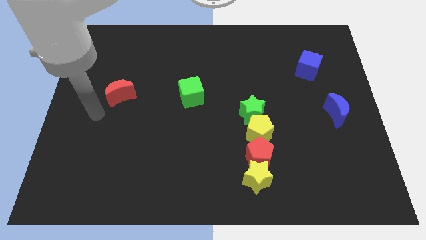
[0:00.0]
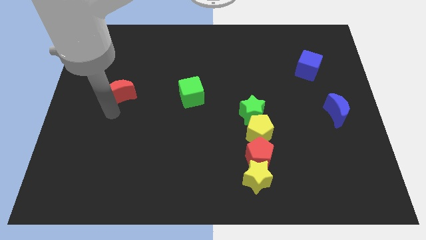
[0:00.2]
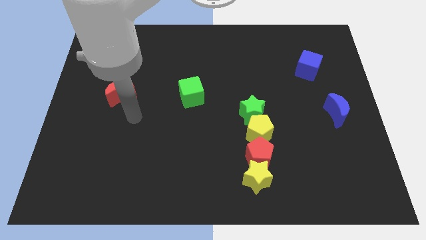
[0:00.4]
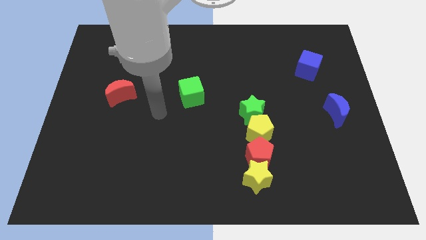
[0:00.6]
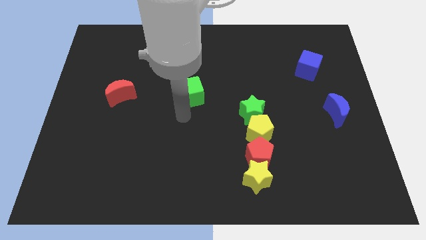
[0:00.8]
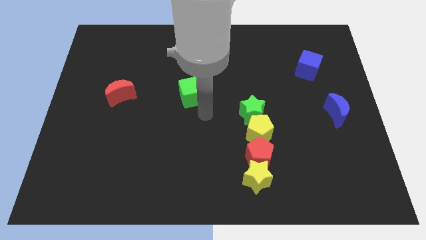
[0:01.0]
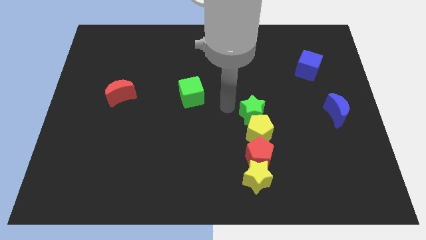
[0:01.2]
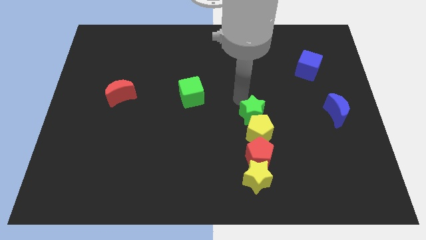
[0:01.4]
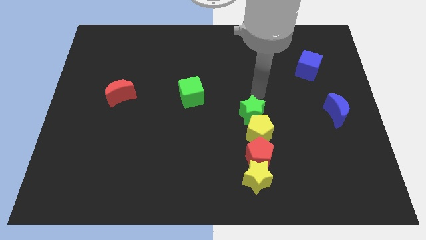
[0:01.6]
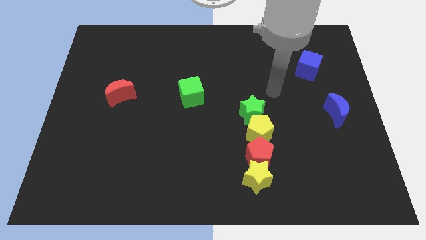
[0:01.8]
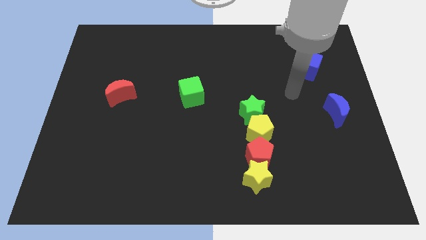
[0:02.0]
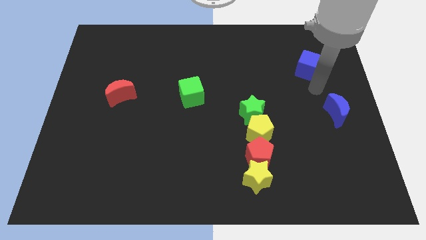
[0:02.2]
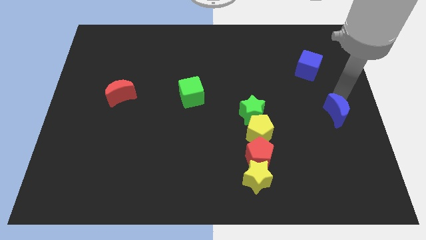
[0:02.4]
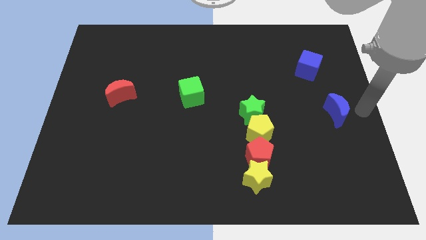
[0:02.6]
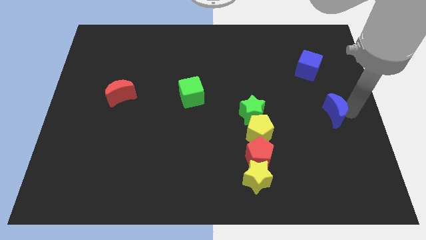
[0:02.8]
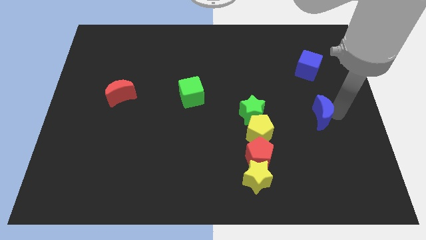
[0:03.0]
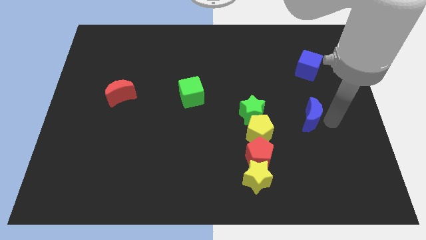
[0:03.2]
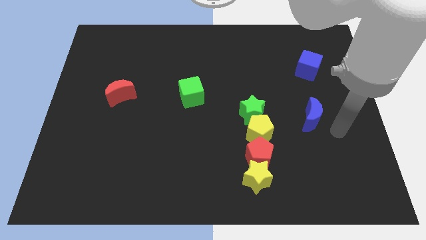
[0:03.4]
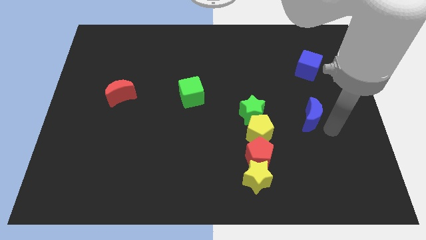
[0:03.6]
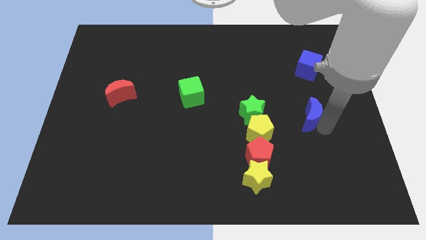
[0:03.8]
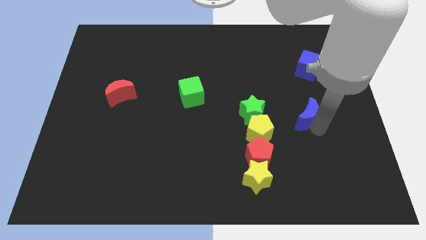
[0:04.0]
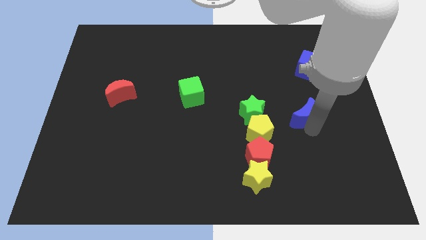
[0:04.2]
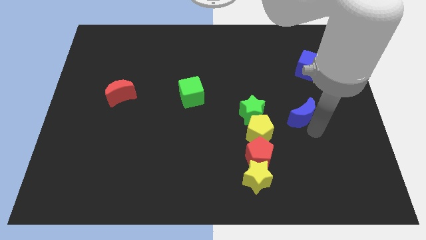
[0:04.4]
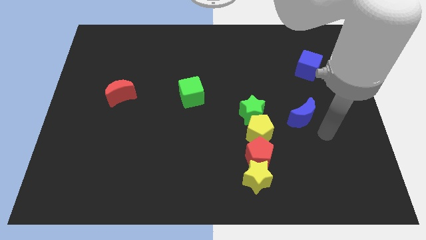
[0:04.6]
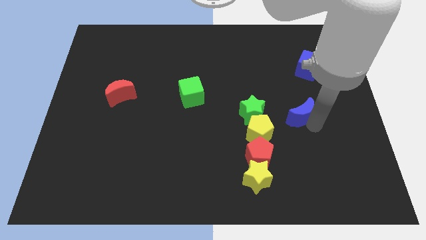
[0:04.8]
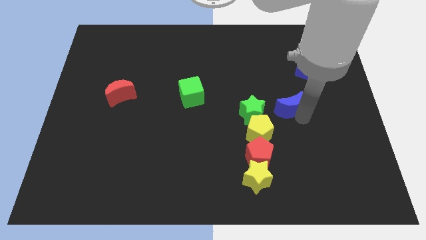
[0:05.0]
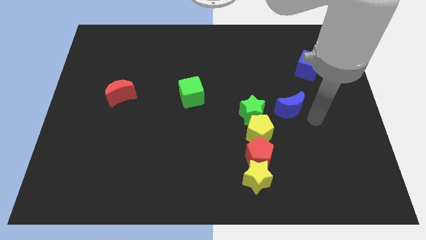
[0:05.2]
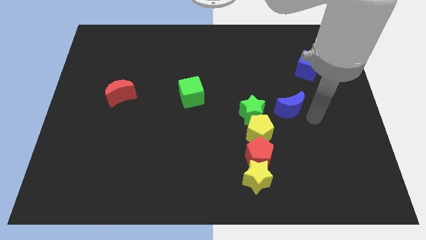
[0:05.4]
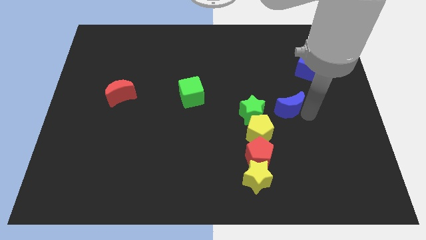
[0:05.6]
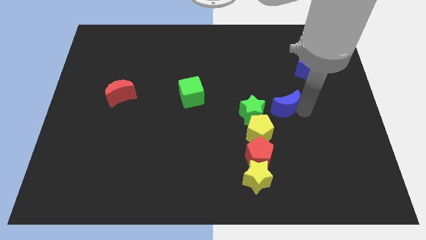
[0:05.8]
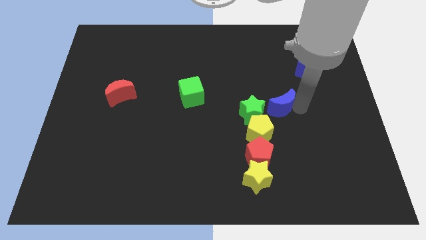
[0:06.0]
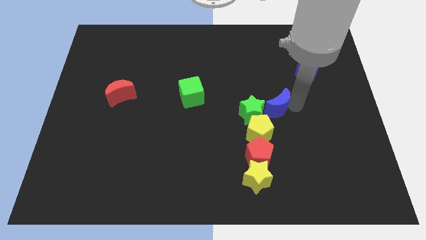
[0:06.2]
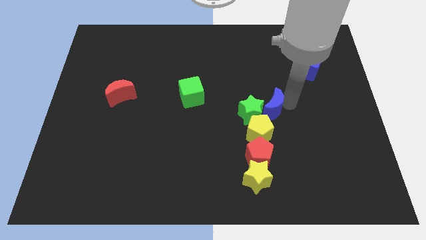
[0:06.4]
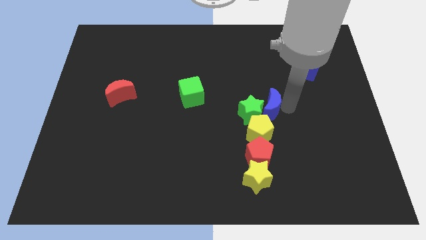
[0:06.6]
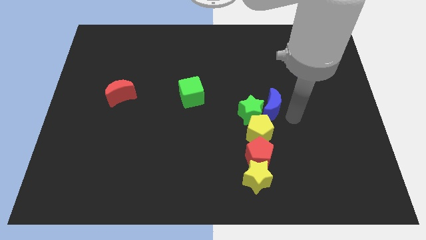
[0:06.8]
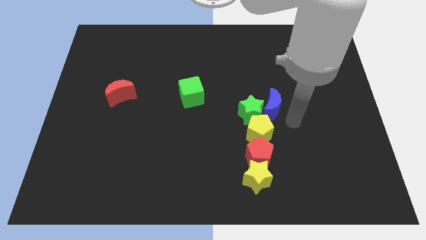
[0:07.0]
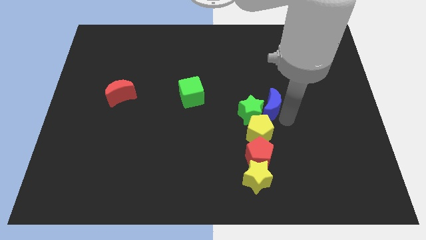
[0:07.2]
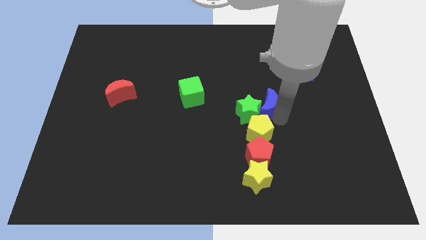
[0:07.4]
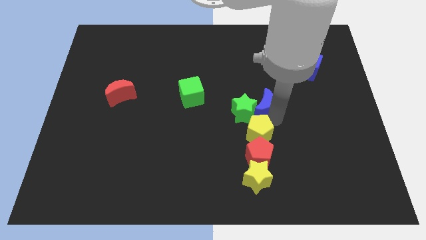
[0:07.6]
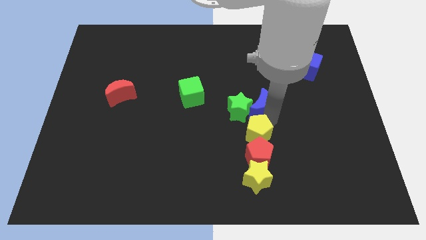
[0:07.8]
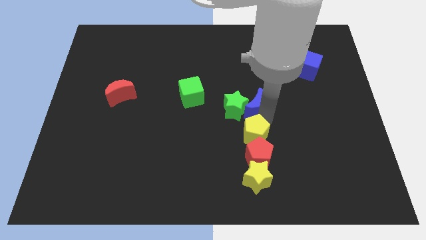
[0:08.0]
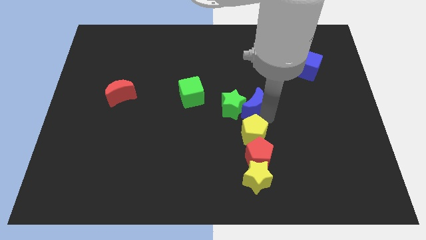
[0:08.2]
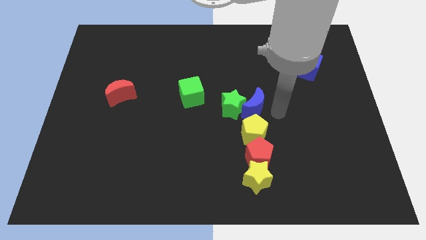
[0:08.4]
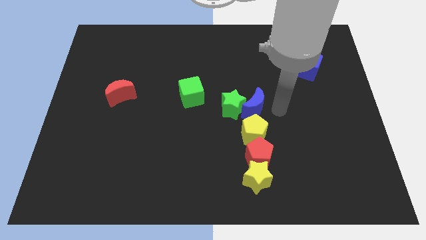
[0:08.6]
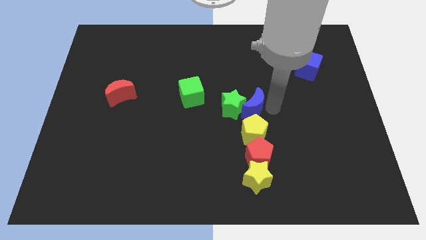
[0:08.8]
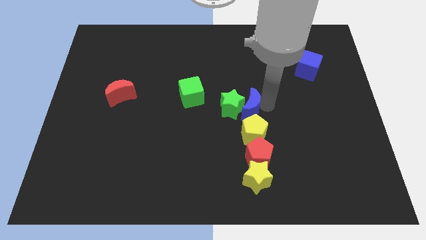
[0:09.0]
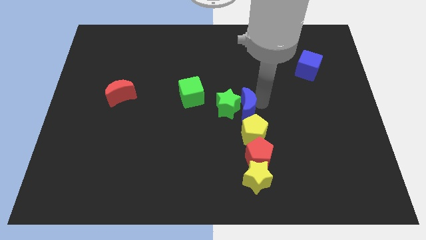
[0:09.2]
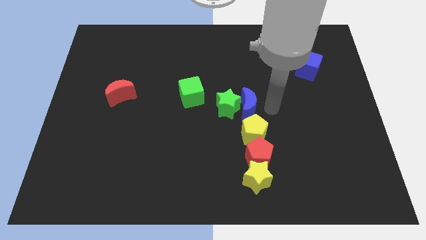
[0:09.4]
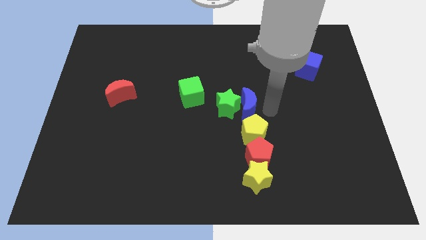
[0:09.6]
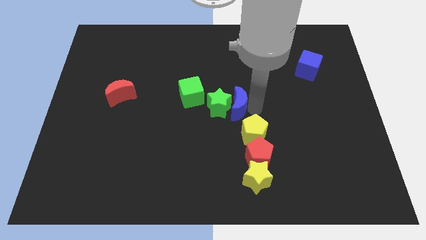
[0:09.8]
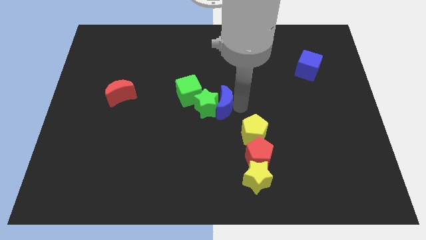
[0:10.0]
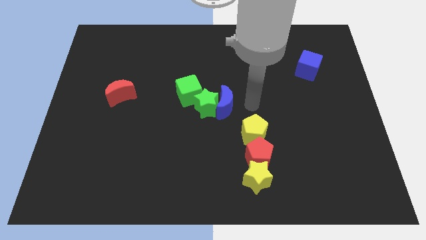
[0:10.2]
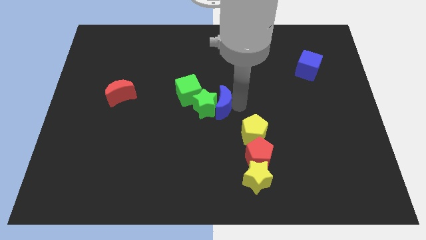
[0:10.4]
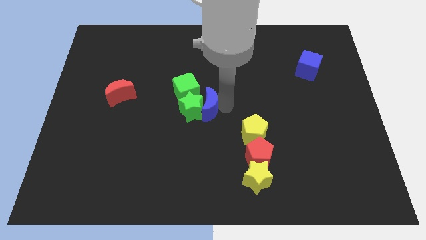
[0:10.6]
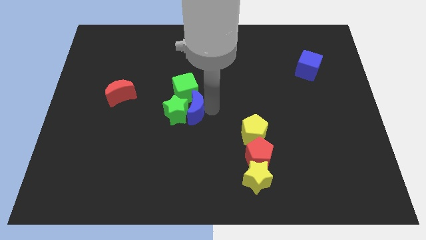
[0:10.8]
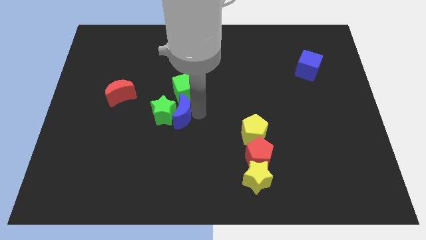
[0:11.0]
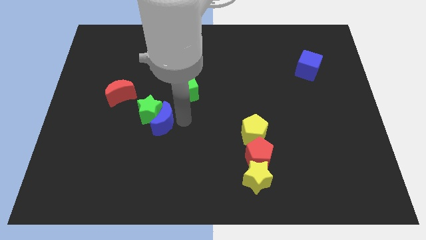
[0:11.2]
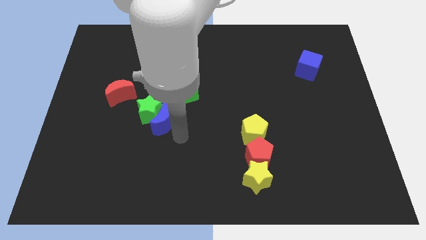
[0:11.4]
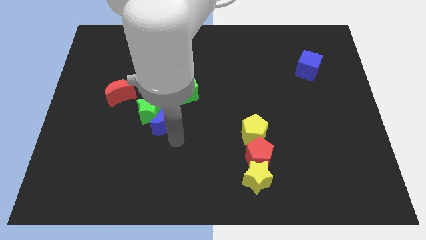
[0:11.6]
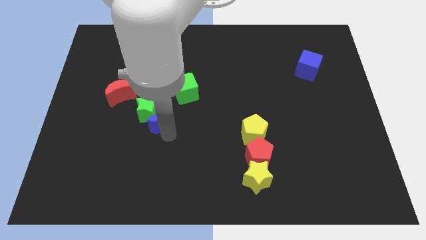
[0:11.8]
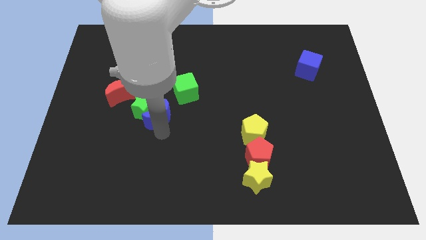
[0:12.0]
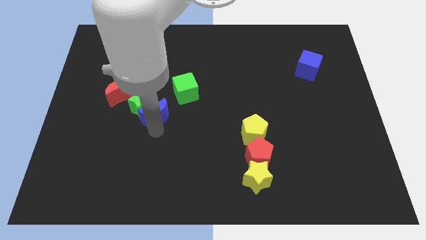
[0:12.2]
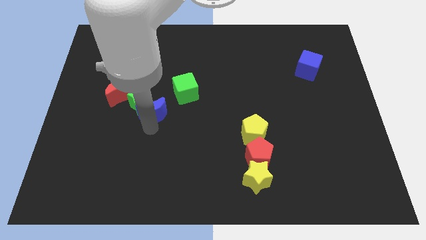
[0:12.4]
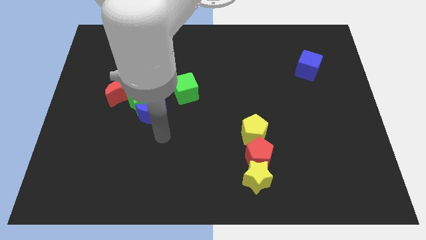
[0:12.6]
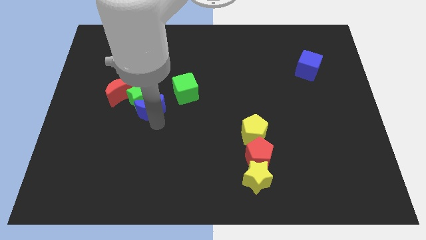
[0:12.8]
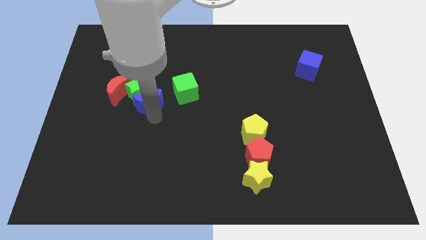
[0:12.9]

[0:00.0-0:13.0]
push the blue moon to the left side of the green cube
